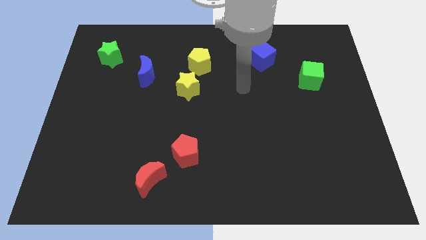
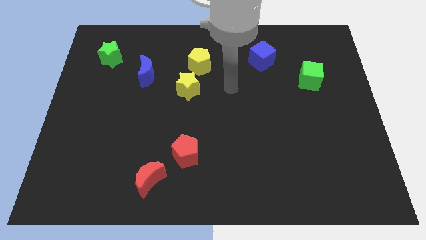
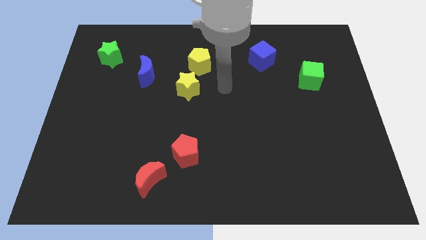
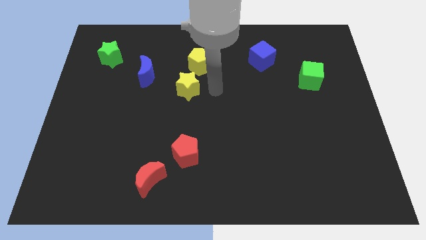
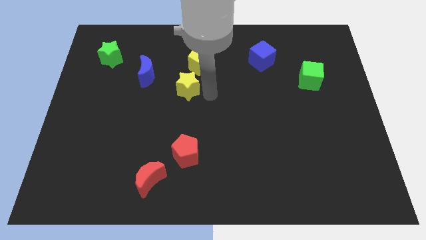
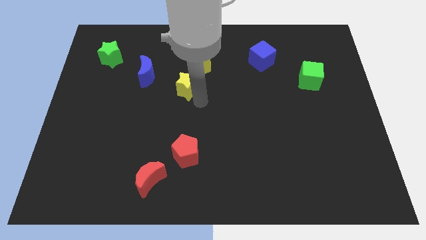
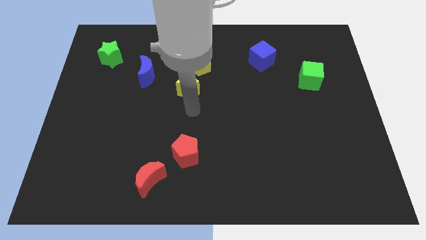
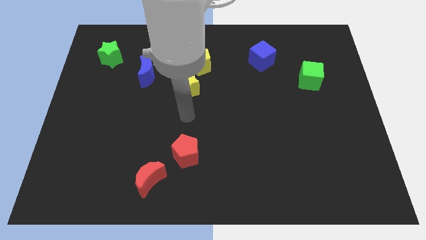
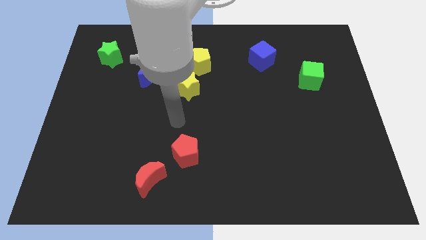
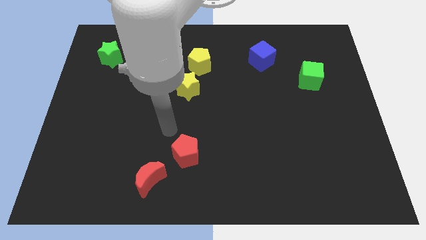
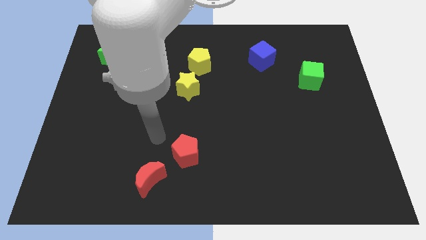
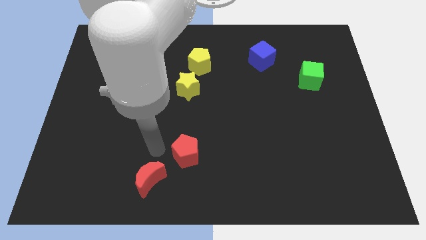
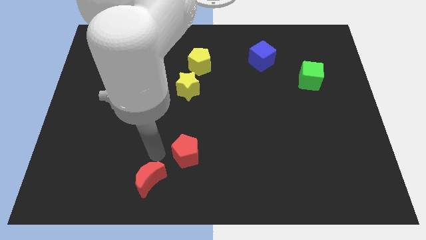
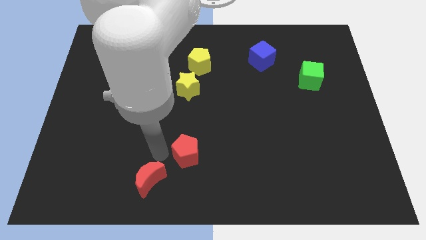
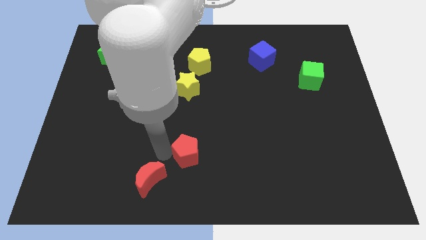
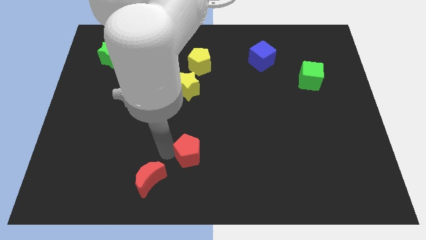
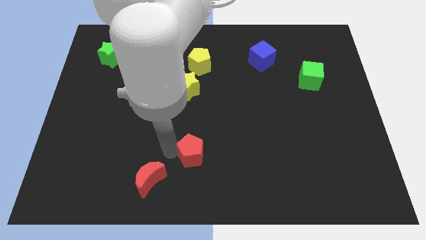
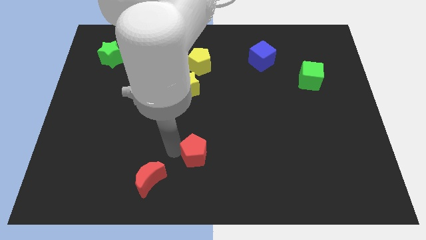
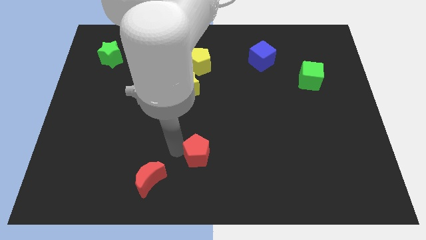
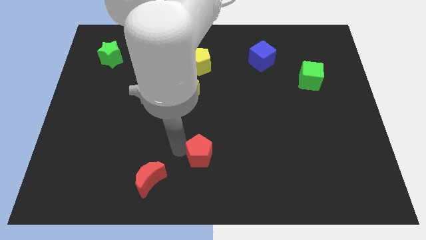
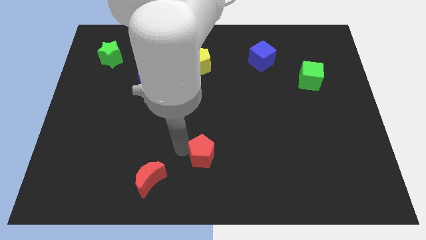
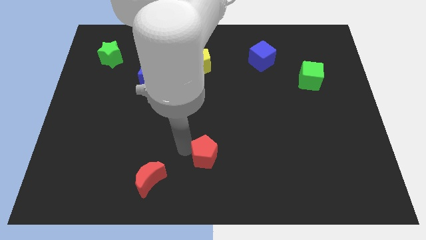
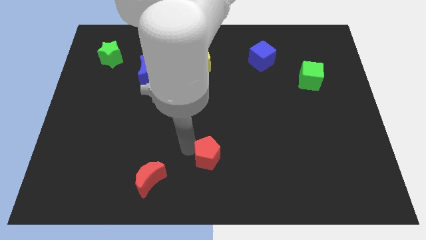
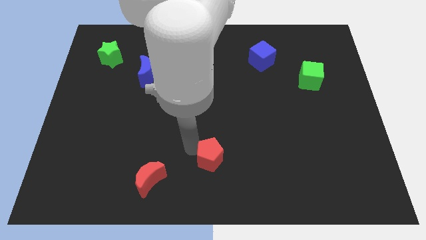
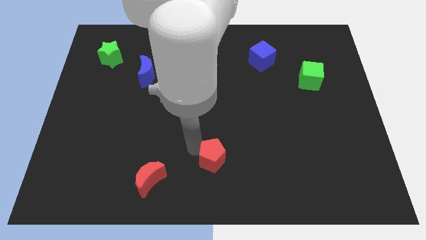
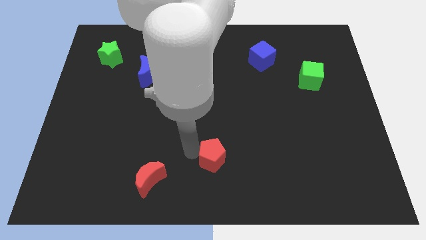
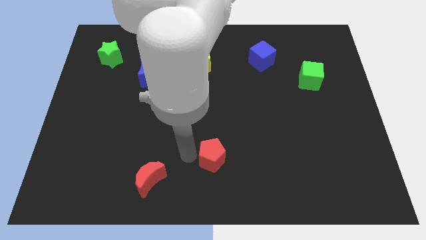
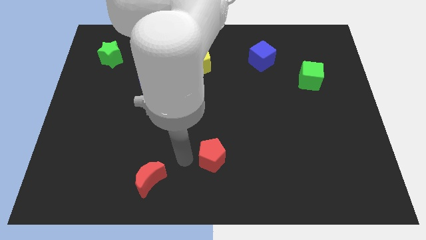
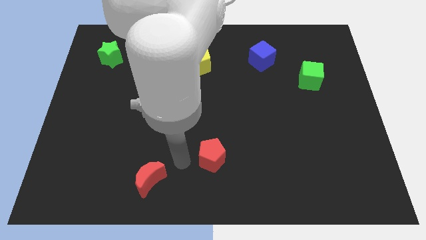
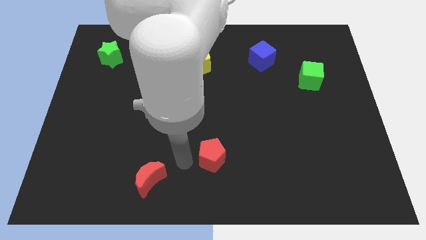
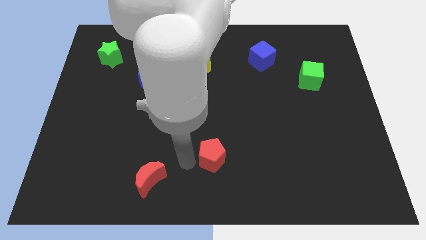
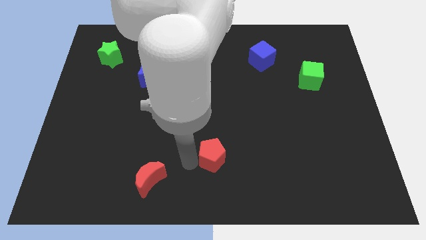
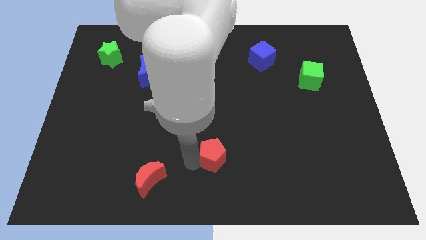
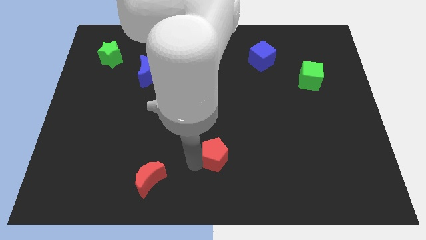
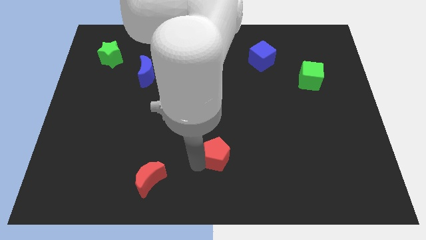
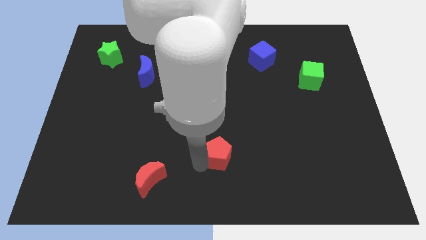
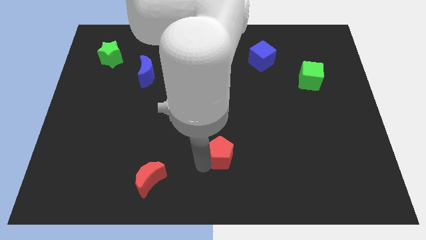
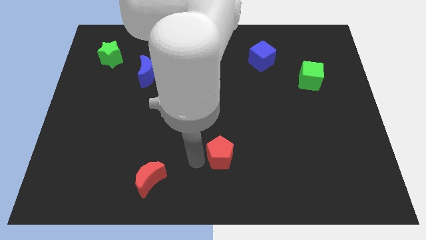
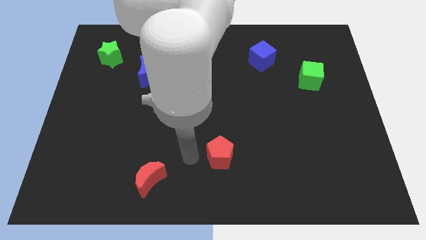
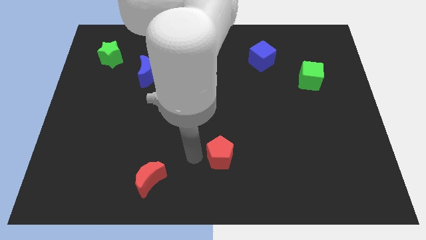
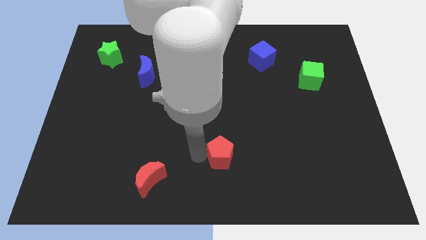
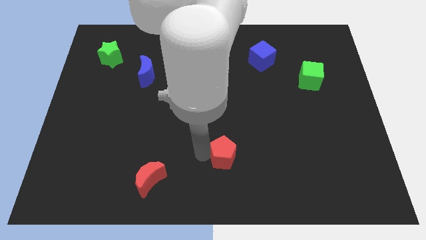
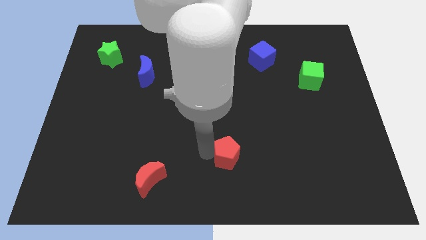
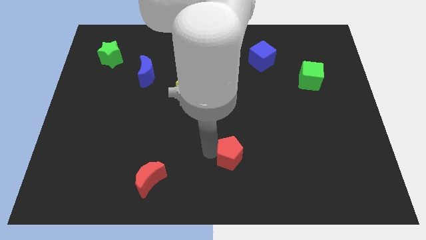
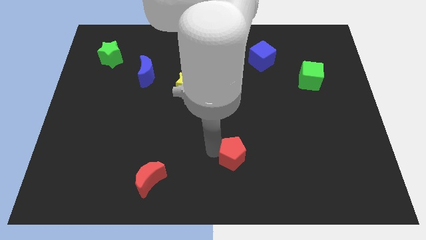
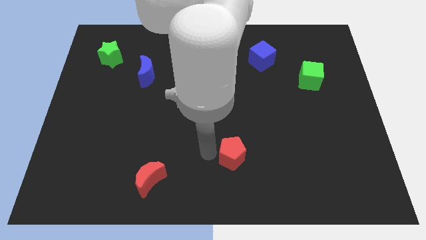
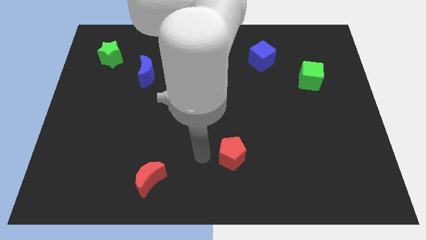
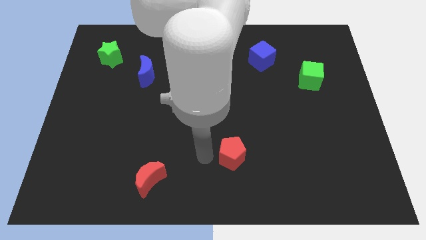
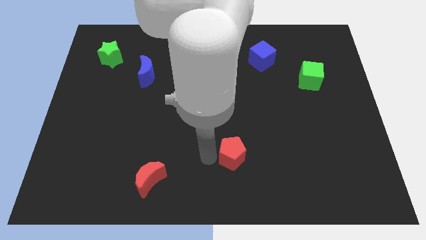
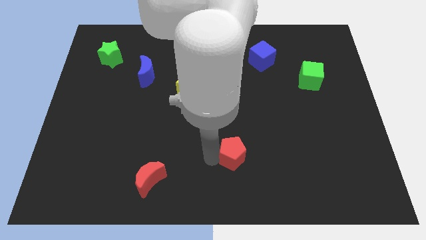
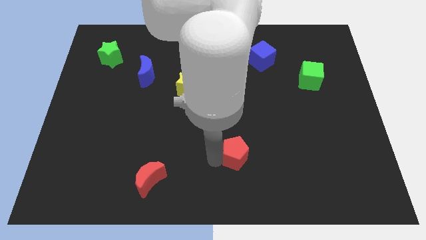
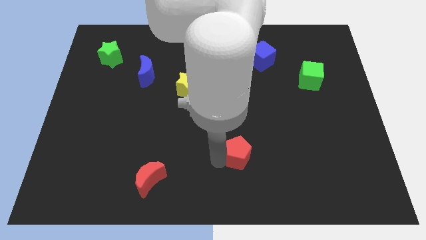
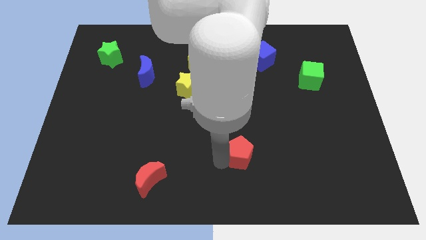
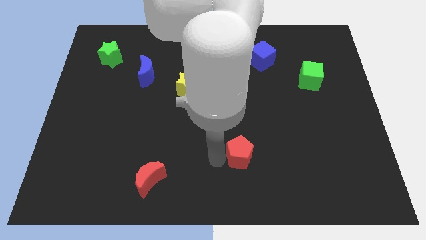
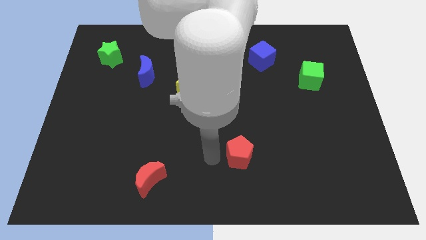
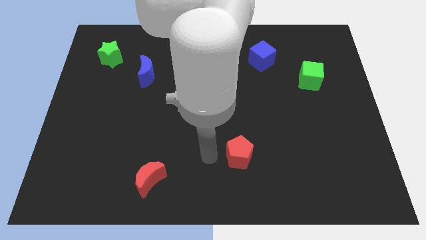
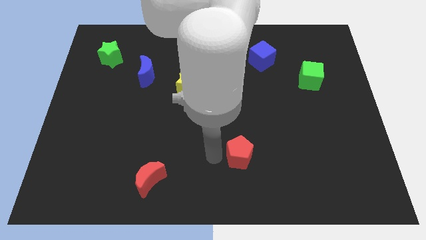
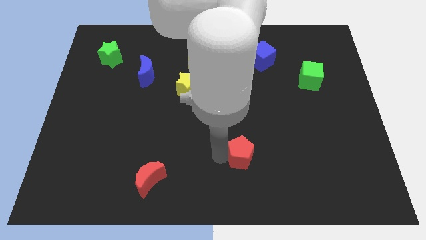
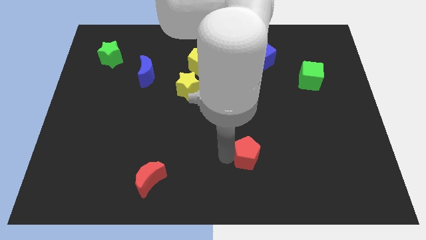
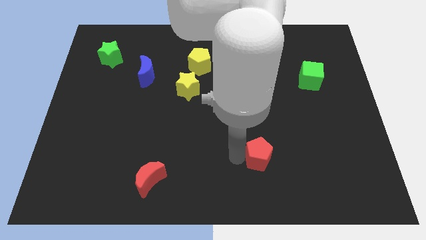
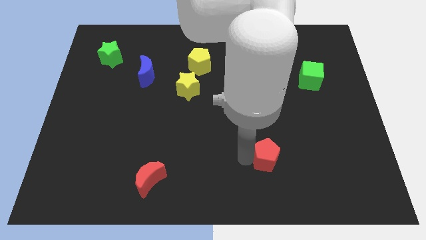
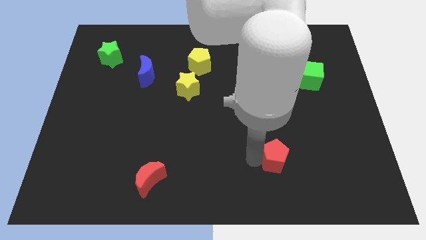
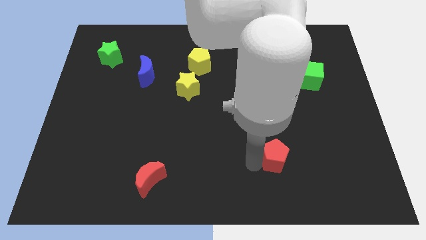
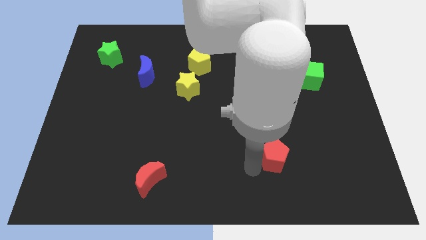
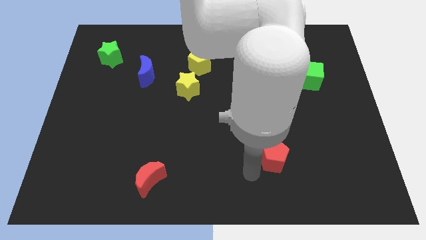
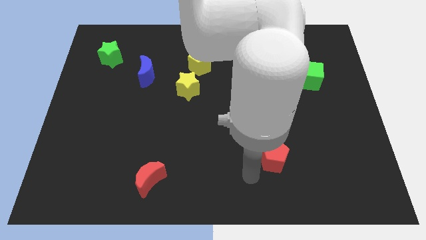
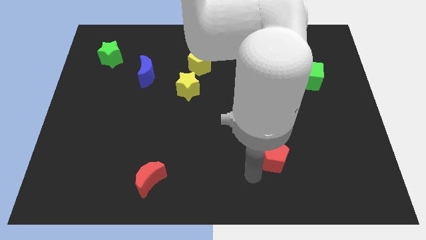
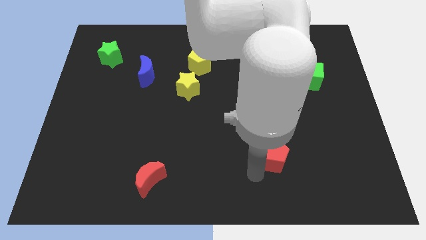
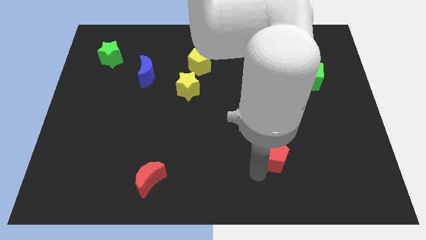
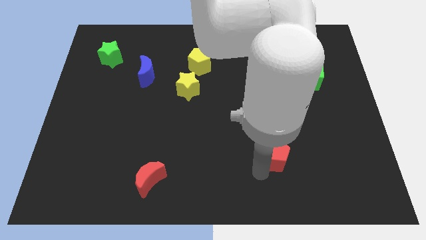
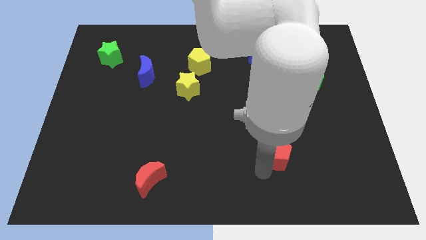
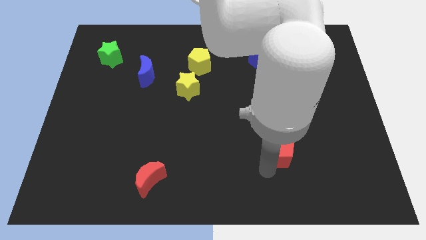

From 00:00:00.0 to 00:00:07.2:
slide the red pentagon to the right

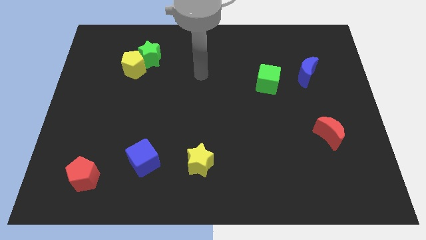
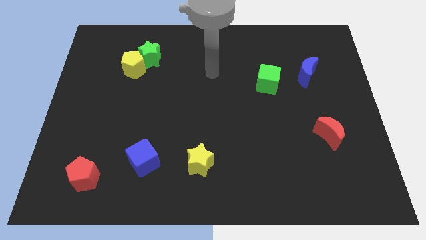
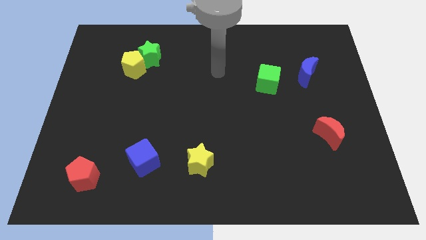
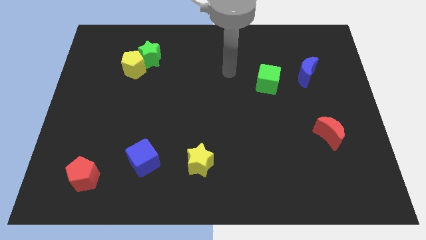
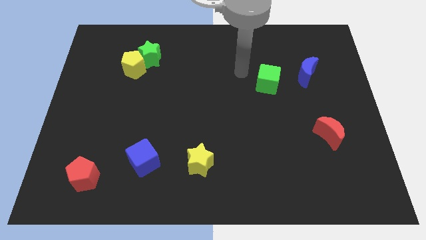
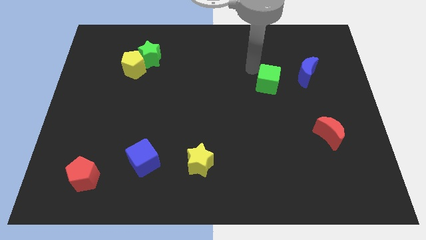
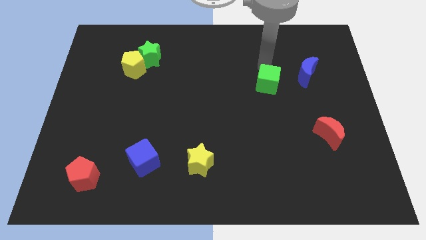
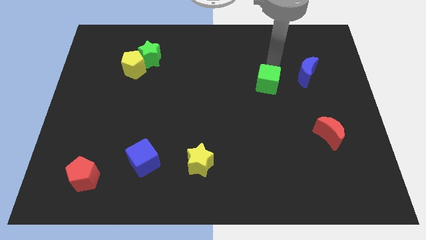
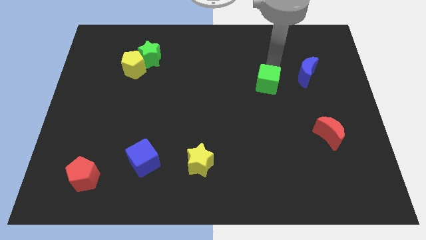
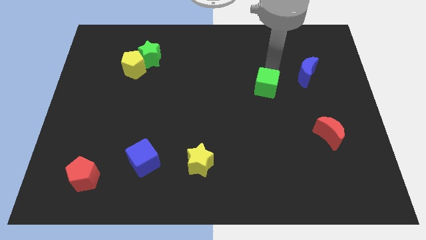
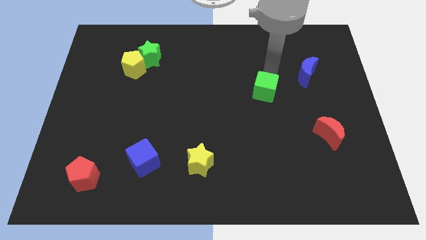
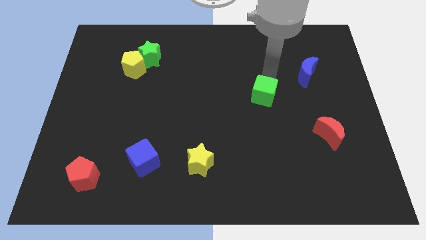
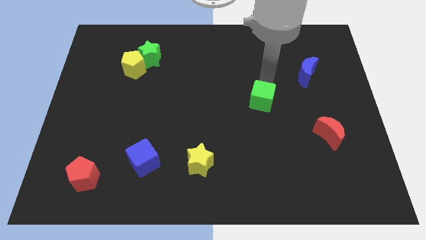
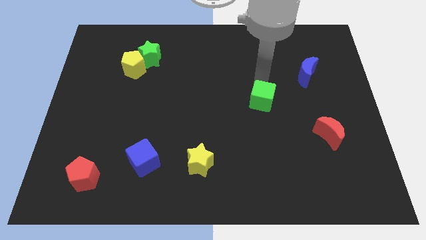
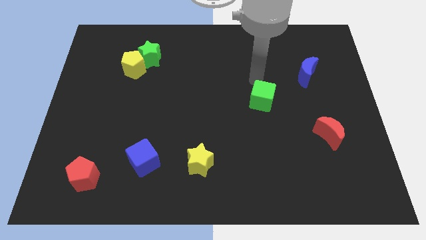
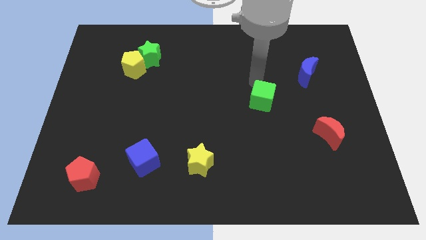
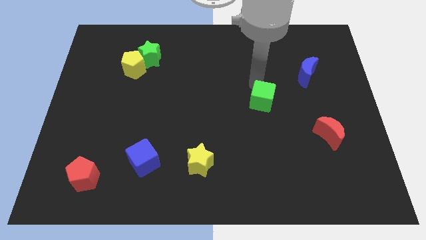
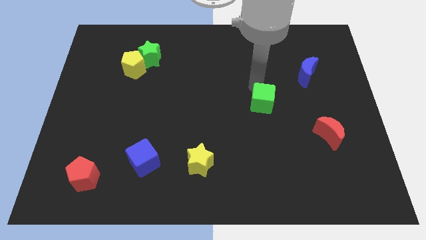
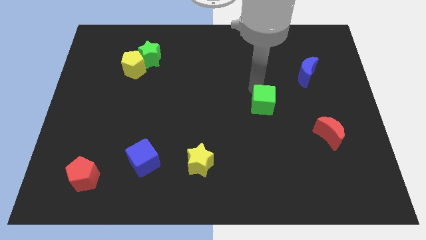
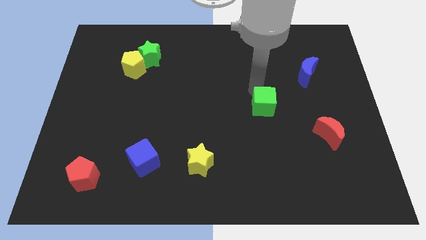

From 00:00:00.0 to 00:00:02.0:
slightly push the green cube down
